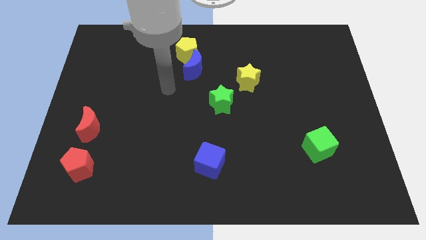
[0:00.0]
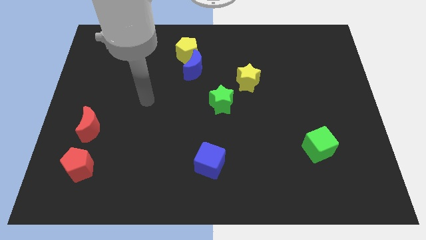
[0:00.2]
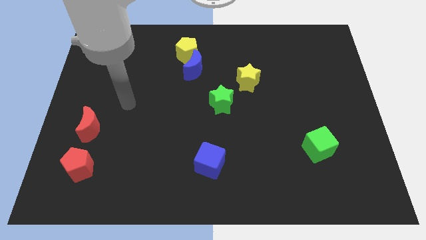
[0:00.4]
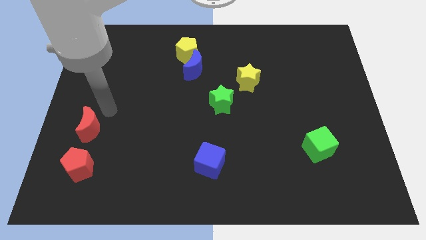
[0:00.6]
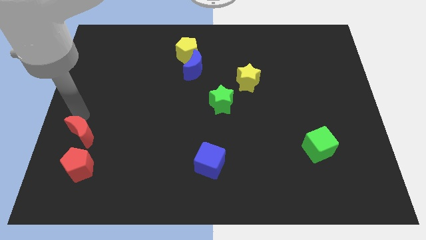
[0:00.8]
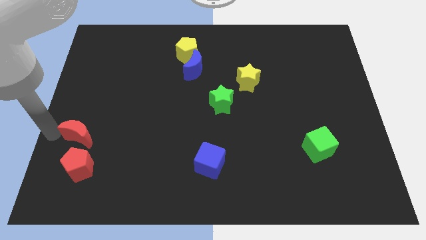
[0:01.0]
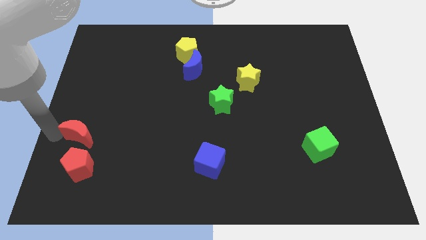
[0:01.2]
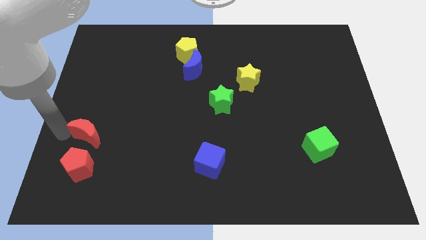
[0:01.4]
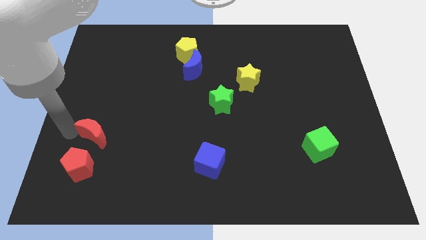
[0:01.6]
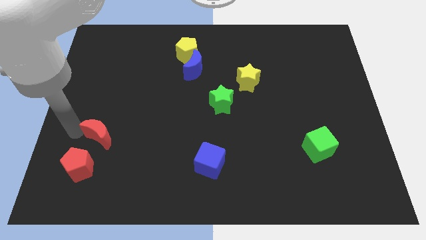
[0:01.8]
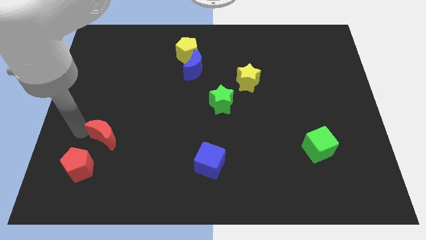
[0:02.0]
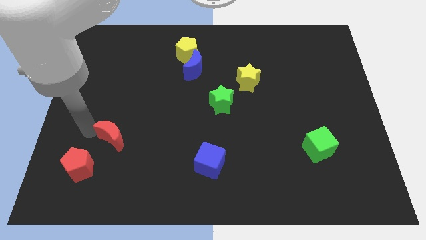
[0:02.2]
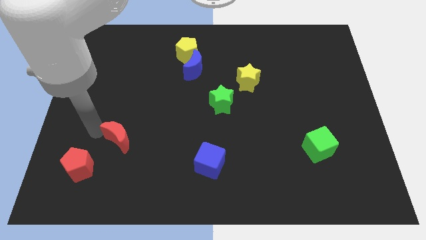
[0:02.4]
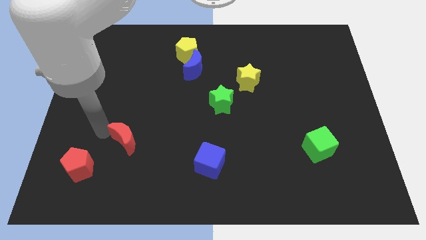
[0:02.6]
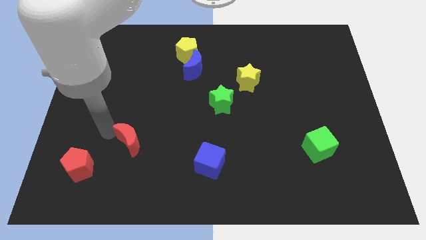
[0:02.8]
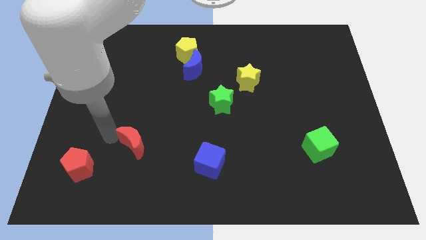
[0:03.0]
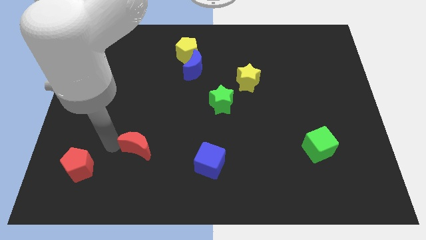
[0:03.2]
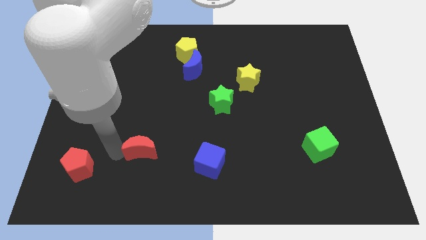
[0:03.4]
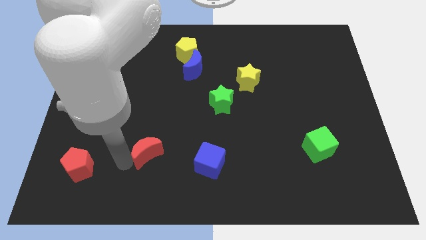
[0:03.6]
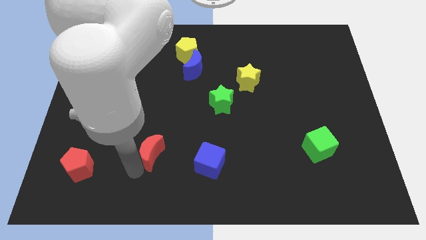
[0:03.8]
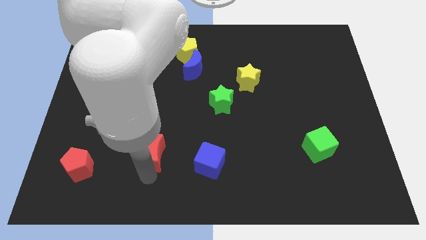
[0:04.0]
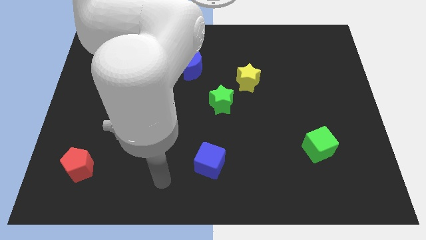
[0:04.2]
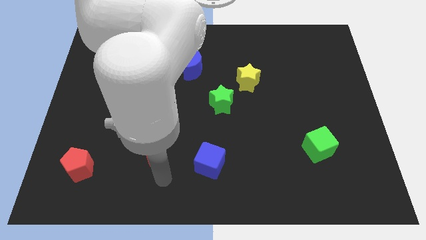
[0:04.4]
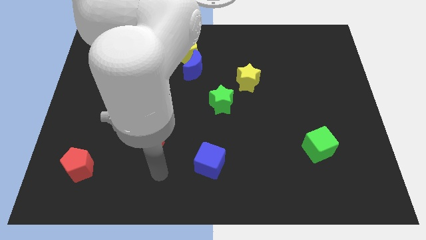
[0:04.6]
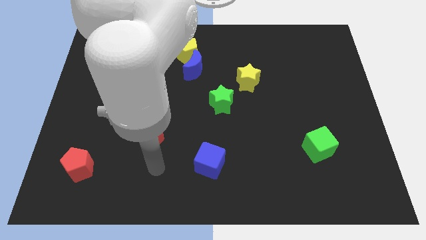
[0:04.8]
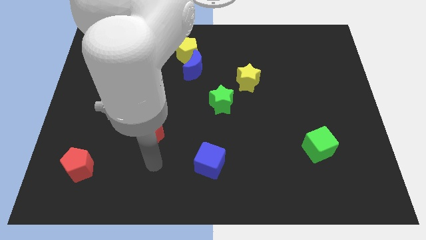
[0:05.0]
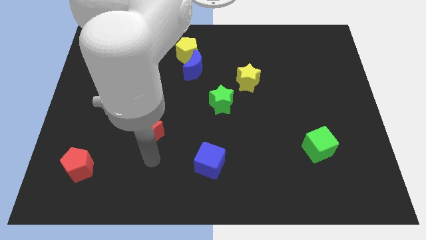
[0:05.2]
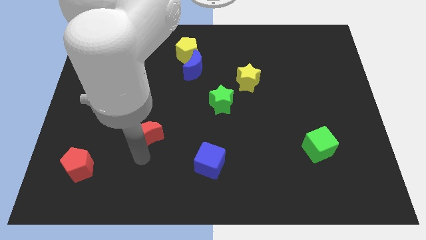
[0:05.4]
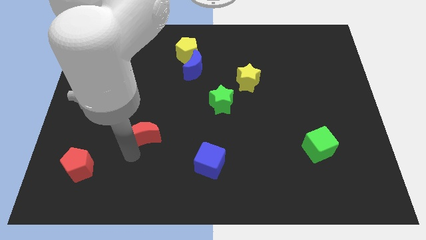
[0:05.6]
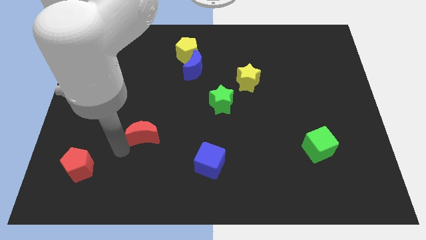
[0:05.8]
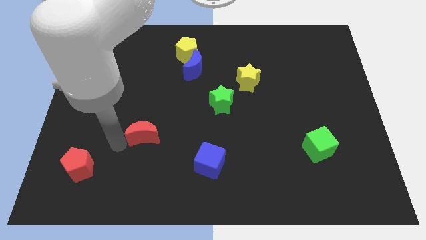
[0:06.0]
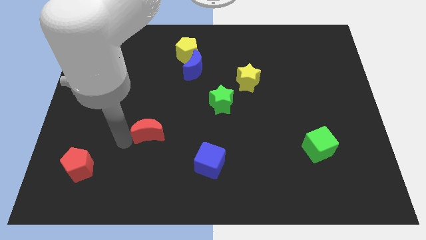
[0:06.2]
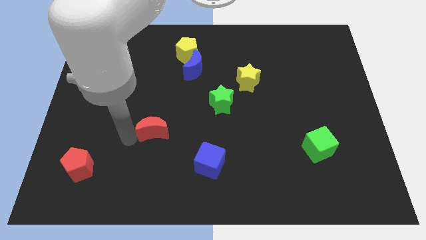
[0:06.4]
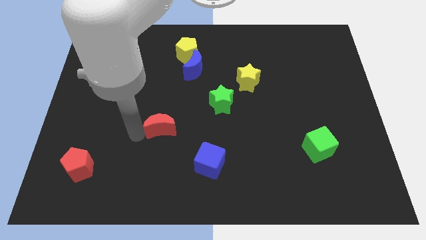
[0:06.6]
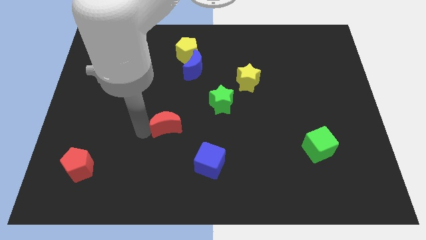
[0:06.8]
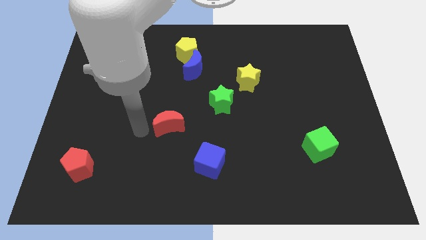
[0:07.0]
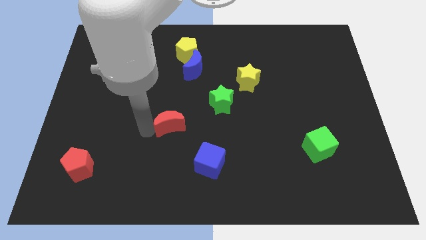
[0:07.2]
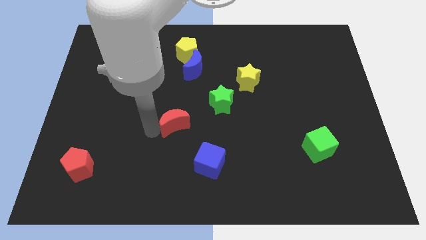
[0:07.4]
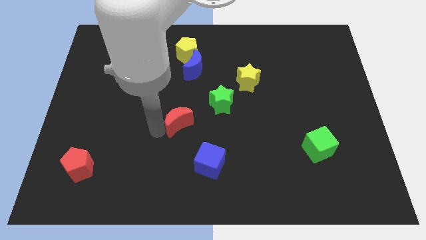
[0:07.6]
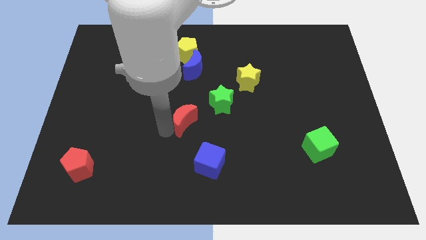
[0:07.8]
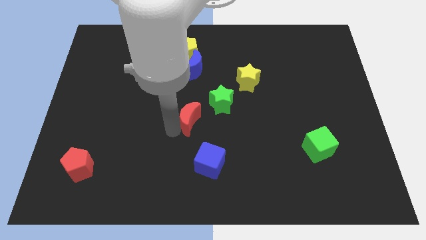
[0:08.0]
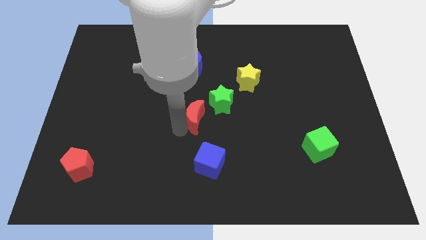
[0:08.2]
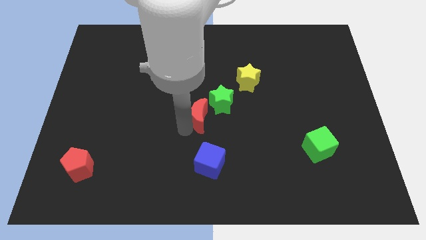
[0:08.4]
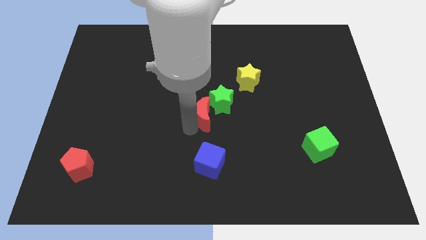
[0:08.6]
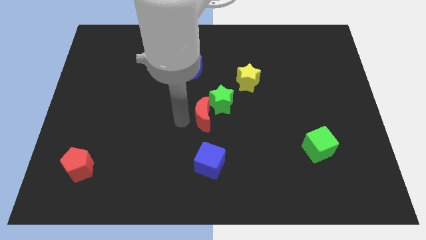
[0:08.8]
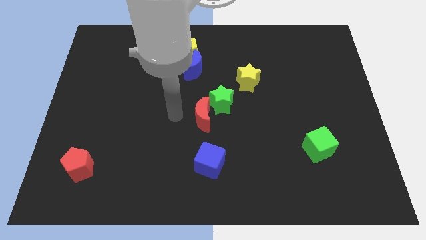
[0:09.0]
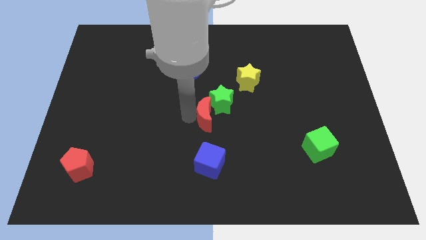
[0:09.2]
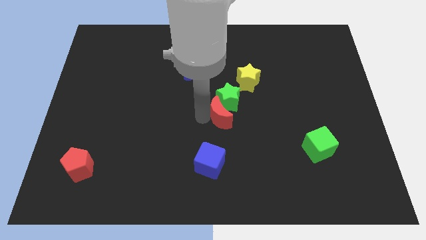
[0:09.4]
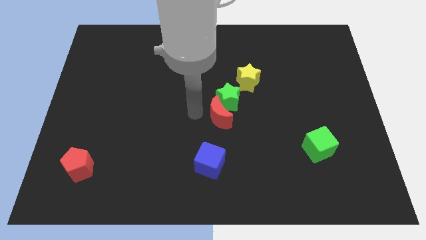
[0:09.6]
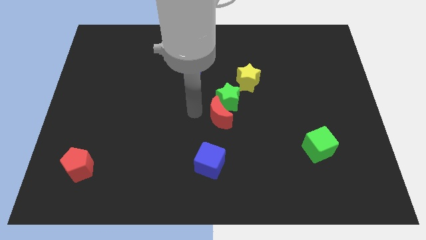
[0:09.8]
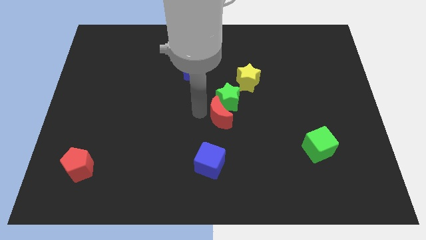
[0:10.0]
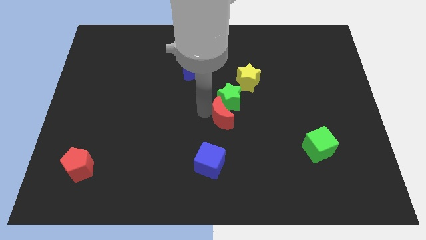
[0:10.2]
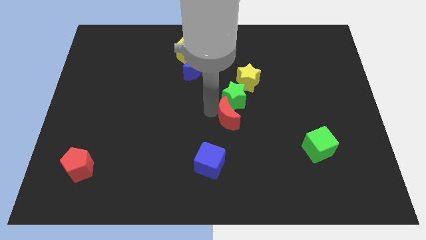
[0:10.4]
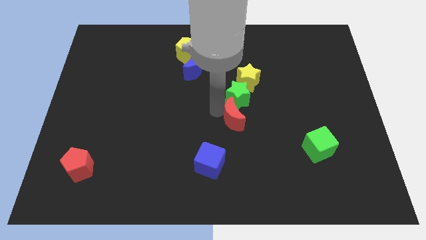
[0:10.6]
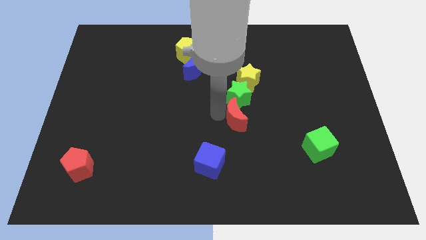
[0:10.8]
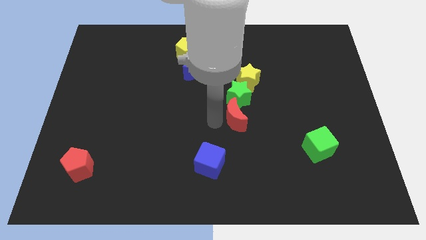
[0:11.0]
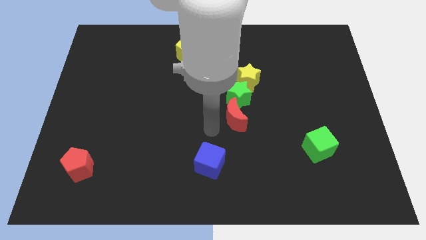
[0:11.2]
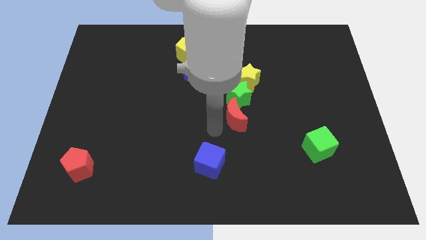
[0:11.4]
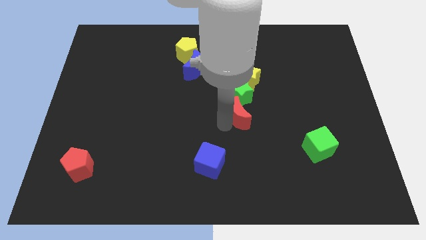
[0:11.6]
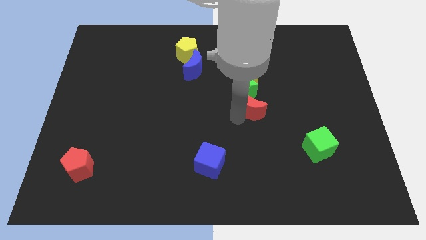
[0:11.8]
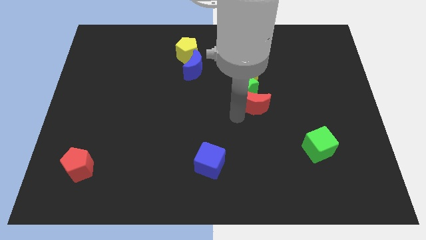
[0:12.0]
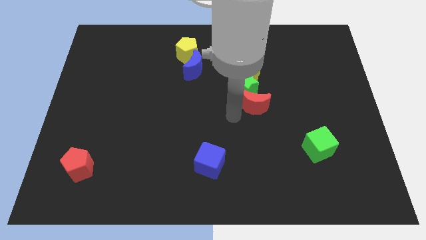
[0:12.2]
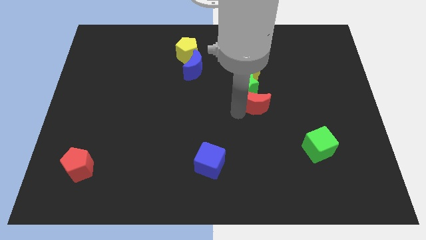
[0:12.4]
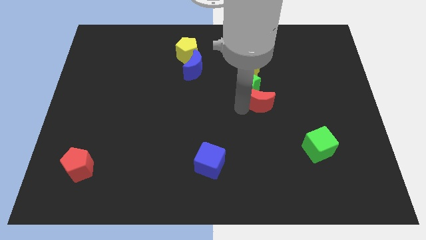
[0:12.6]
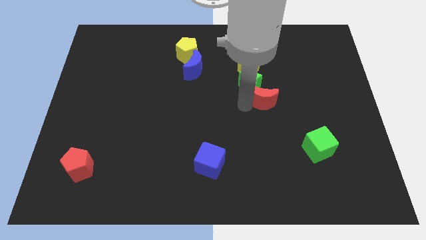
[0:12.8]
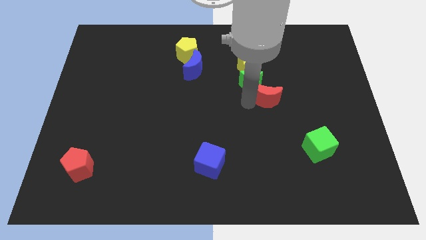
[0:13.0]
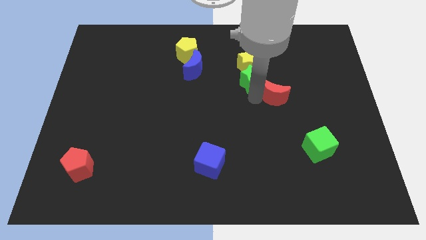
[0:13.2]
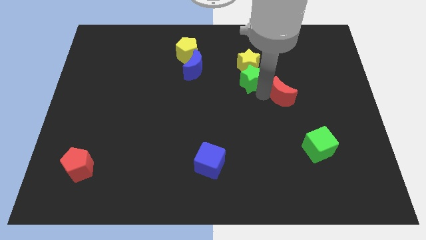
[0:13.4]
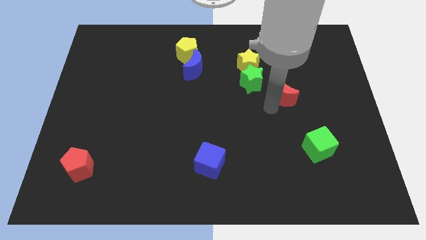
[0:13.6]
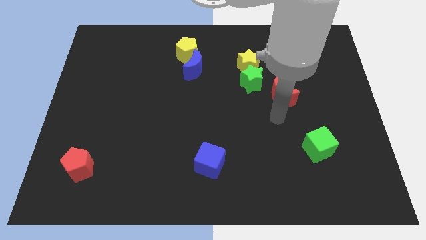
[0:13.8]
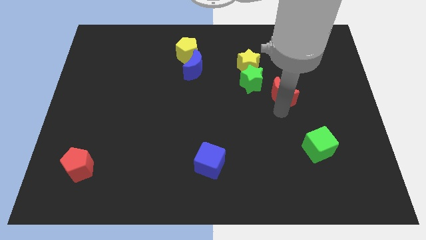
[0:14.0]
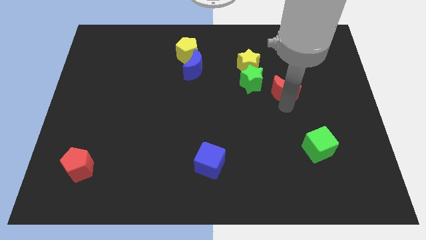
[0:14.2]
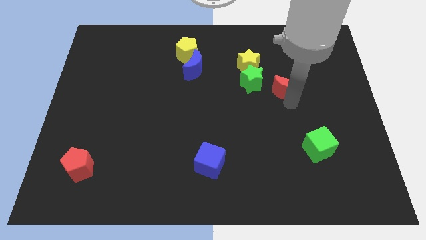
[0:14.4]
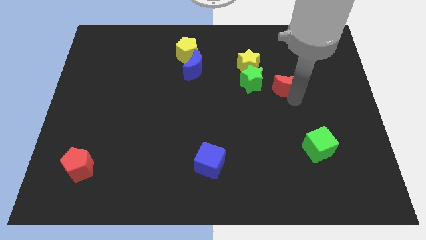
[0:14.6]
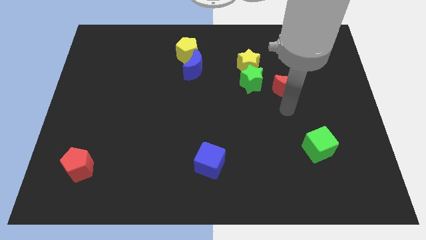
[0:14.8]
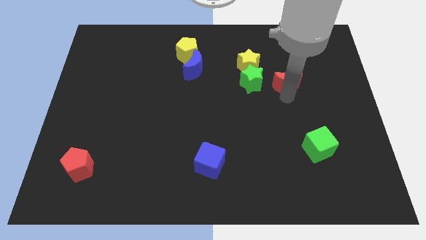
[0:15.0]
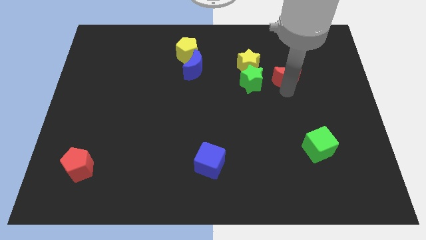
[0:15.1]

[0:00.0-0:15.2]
slide the red moon to the right side of the yellow star
